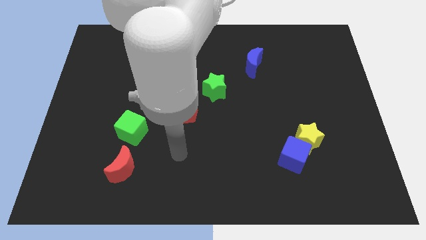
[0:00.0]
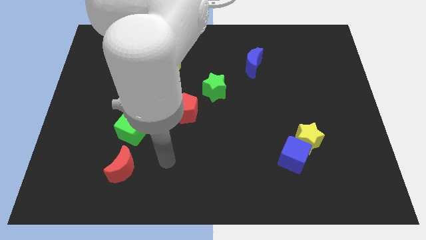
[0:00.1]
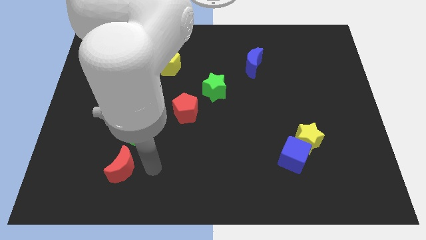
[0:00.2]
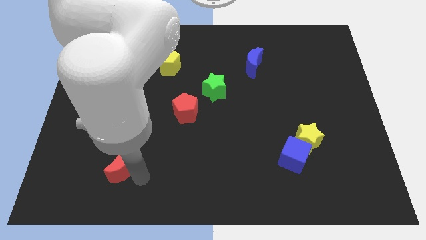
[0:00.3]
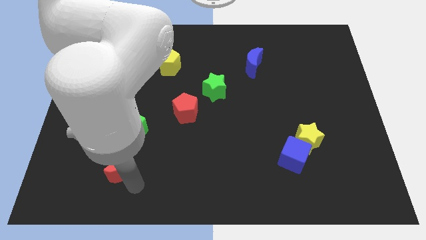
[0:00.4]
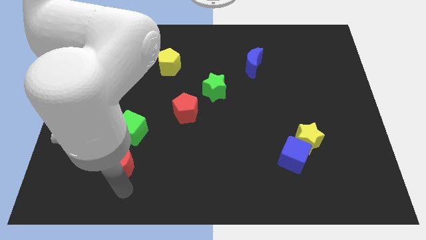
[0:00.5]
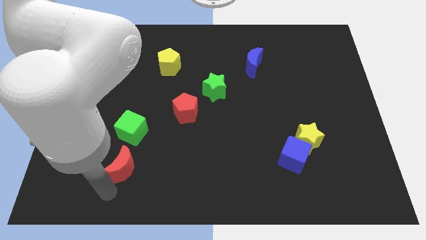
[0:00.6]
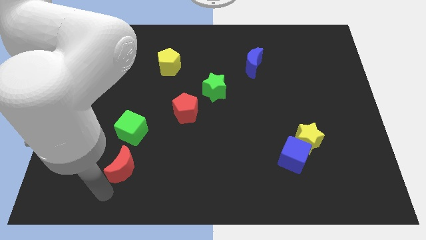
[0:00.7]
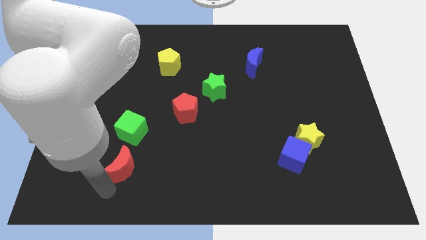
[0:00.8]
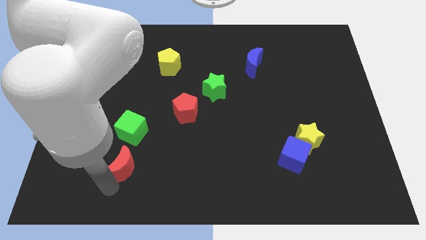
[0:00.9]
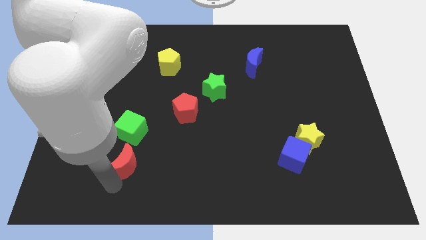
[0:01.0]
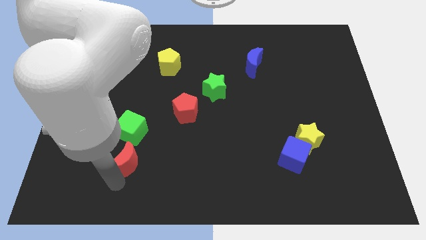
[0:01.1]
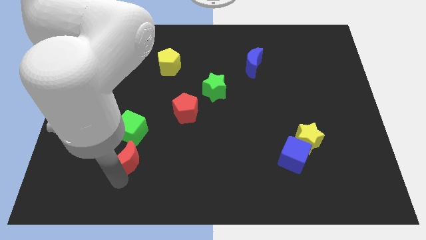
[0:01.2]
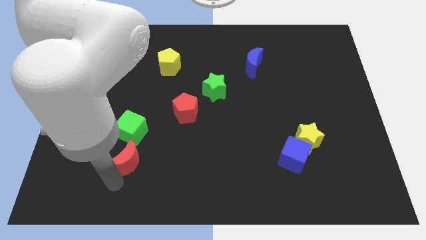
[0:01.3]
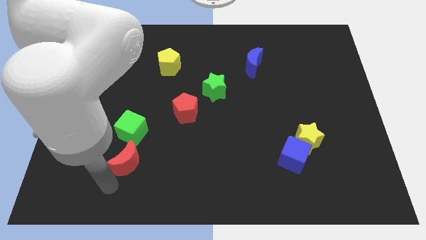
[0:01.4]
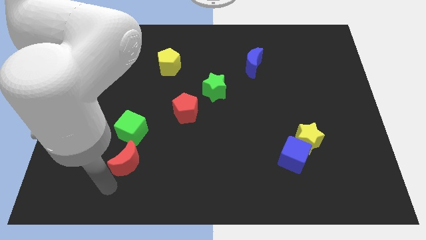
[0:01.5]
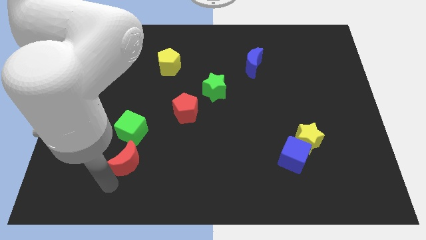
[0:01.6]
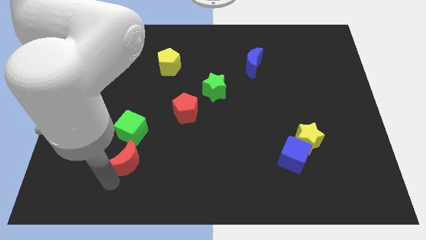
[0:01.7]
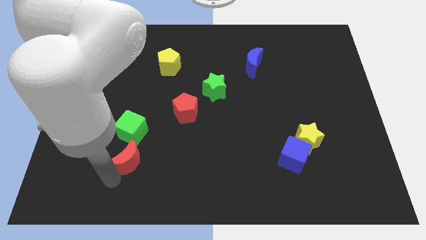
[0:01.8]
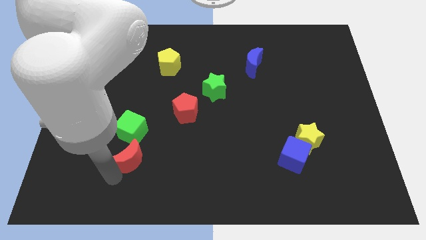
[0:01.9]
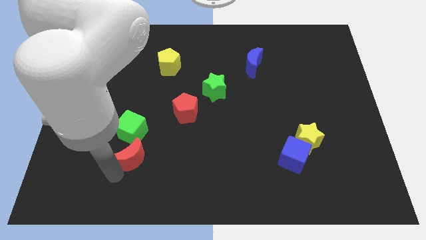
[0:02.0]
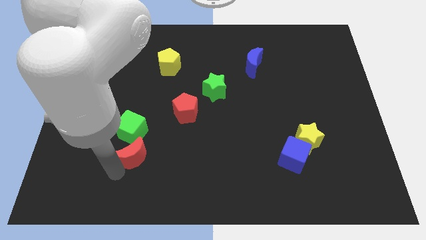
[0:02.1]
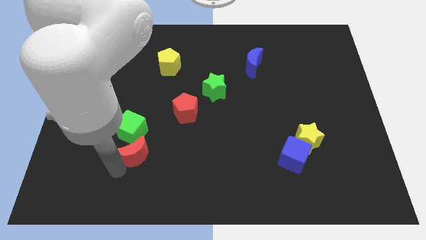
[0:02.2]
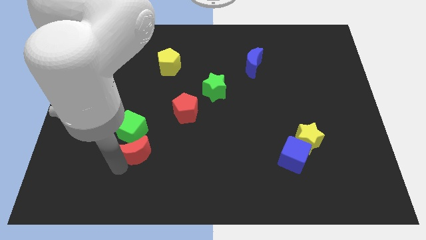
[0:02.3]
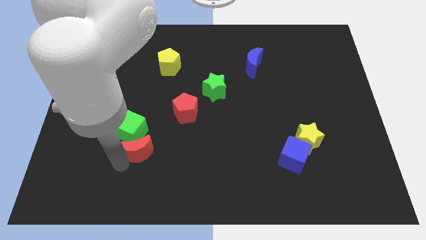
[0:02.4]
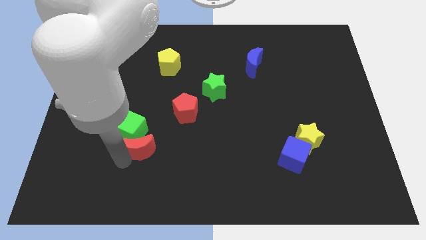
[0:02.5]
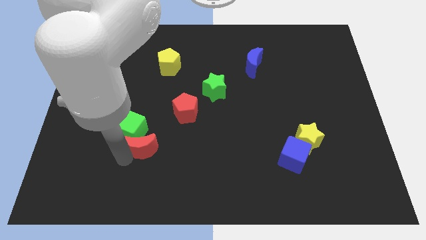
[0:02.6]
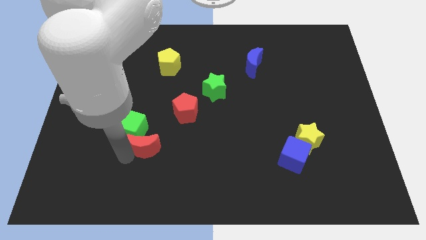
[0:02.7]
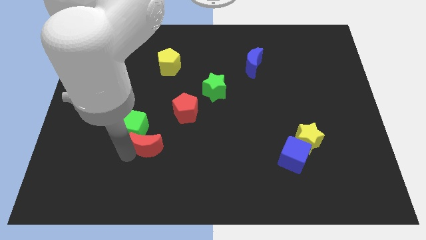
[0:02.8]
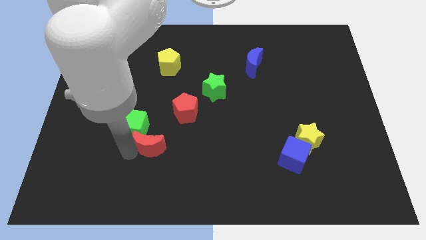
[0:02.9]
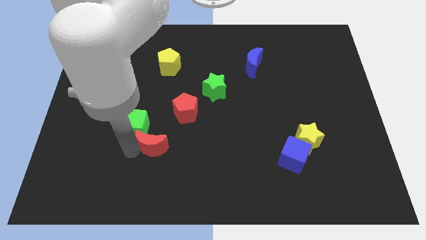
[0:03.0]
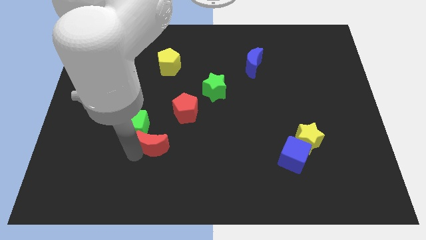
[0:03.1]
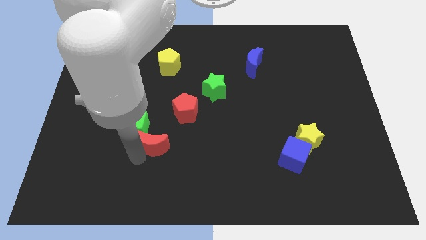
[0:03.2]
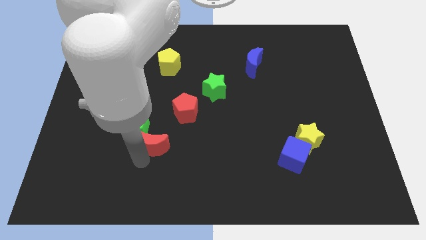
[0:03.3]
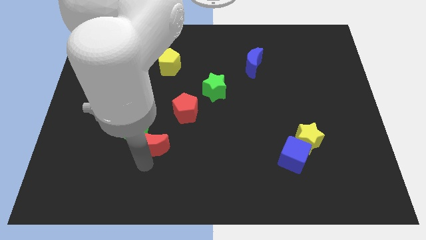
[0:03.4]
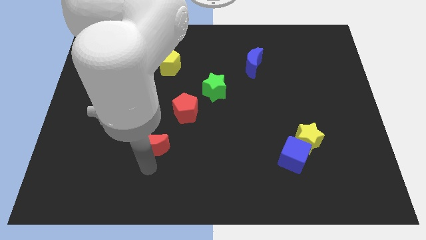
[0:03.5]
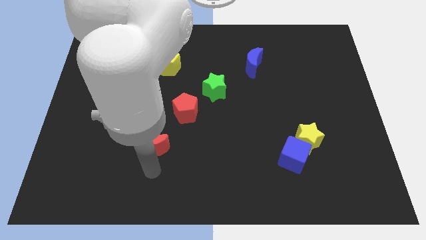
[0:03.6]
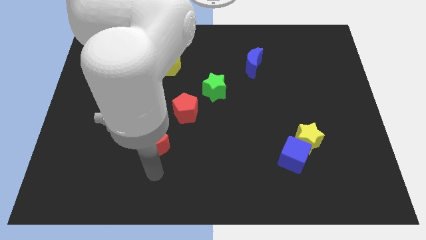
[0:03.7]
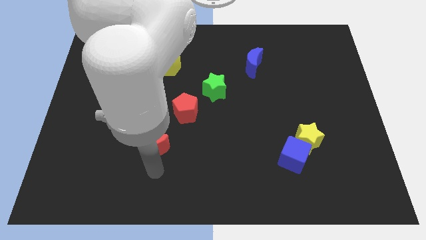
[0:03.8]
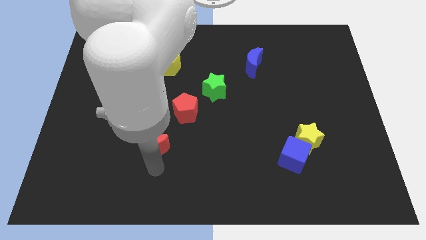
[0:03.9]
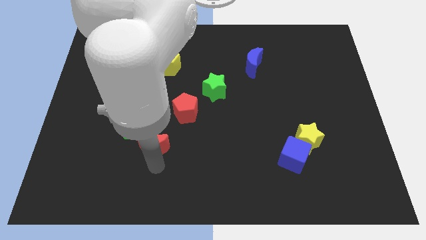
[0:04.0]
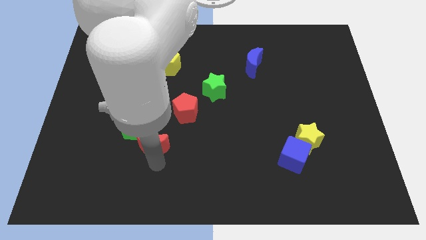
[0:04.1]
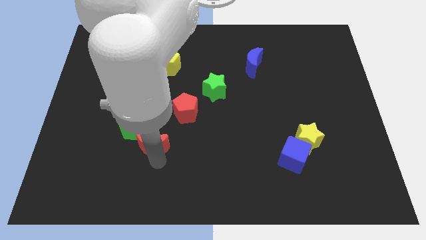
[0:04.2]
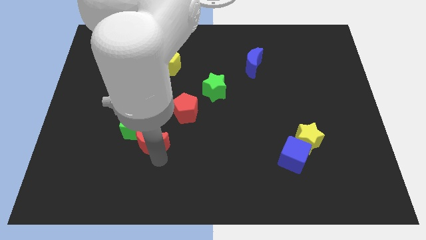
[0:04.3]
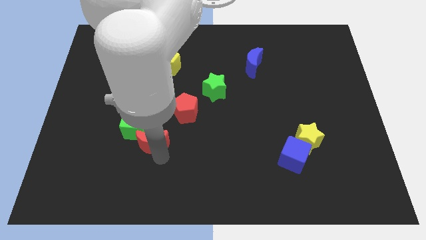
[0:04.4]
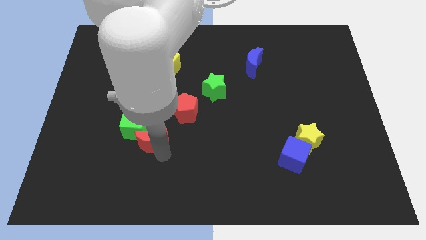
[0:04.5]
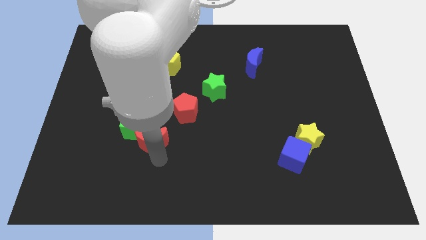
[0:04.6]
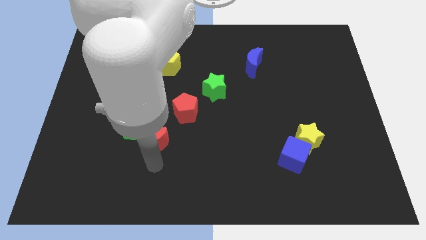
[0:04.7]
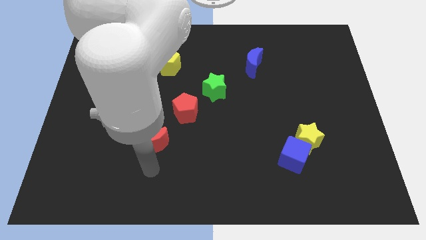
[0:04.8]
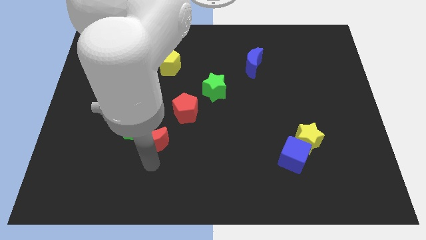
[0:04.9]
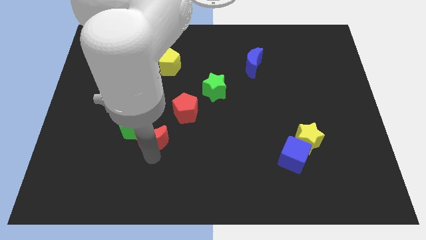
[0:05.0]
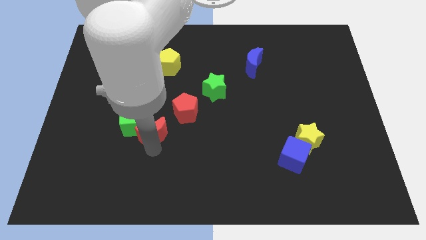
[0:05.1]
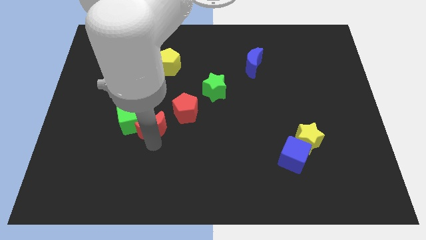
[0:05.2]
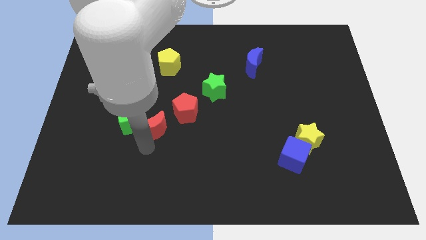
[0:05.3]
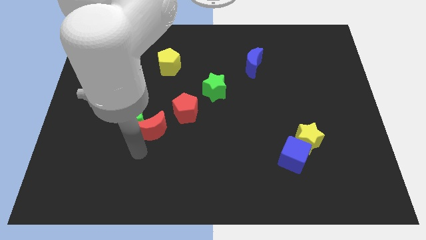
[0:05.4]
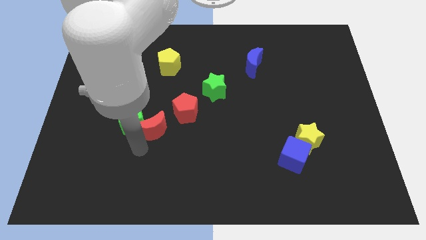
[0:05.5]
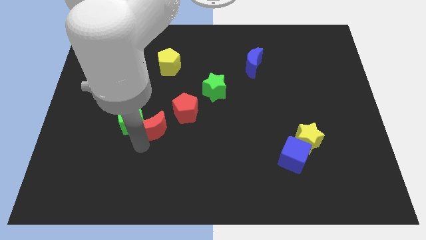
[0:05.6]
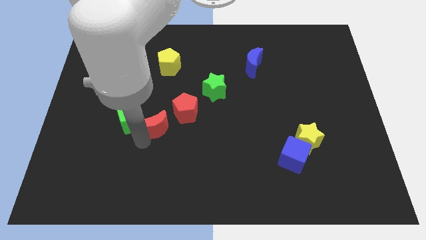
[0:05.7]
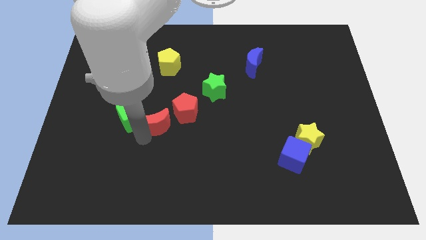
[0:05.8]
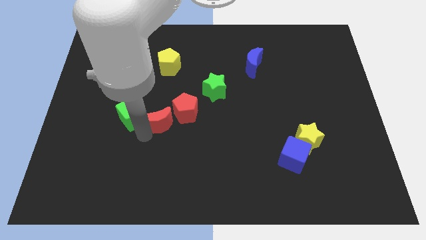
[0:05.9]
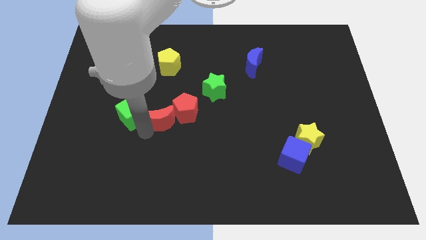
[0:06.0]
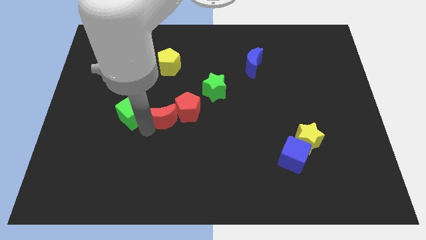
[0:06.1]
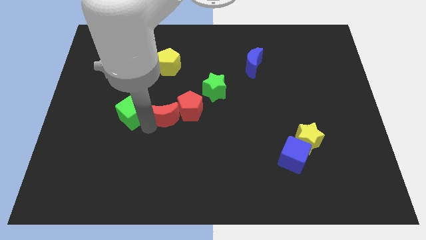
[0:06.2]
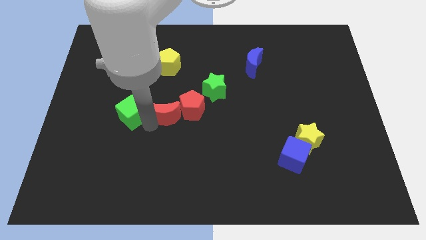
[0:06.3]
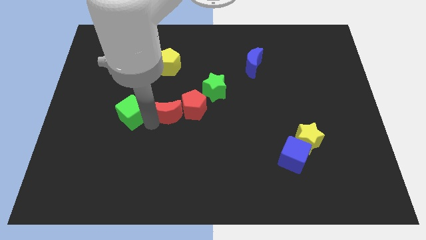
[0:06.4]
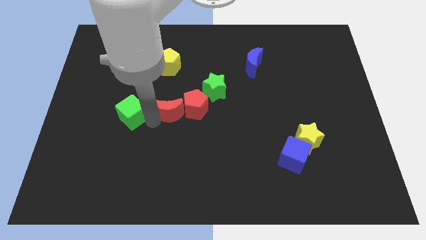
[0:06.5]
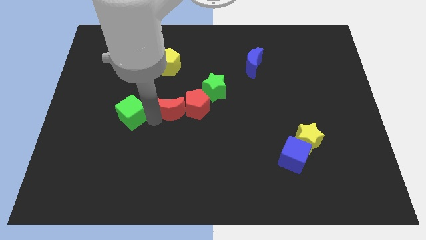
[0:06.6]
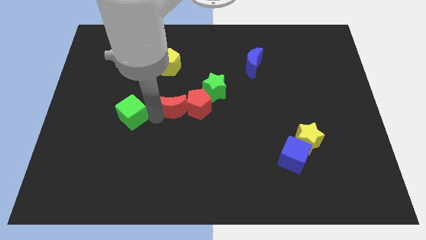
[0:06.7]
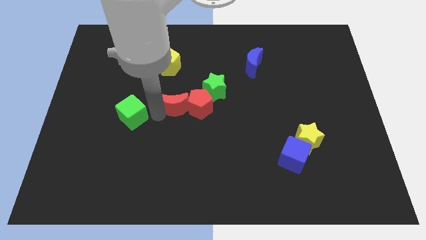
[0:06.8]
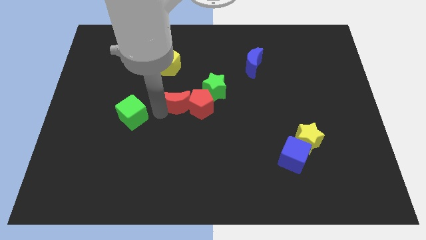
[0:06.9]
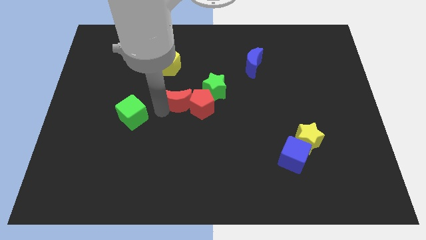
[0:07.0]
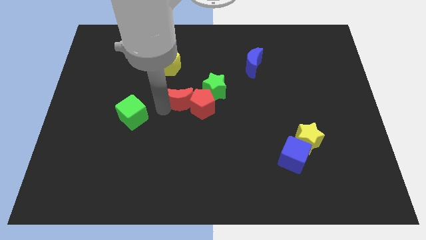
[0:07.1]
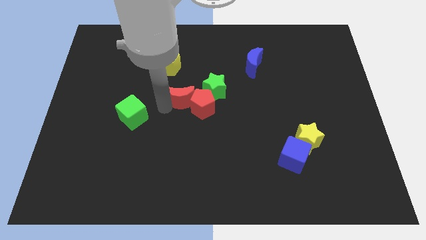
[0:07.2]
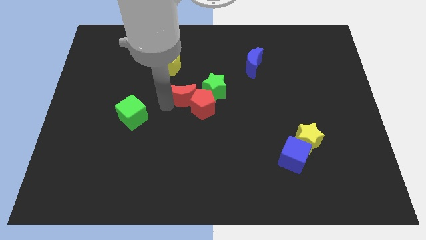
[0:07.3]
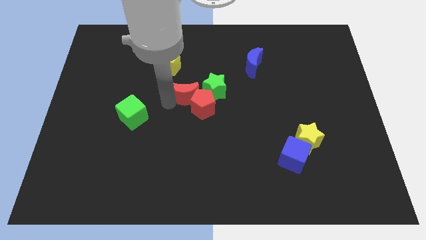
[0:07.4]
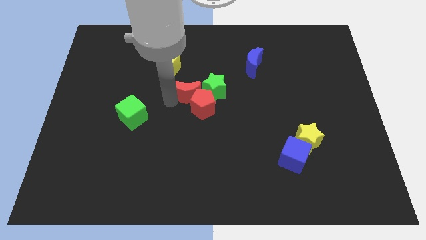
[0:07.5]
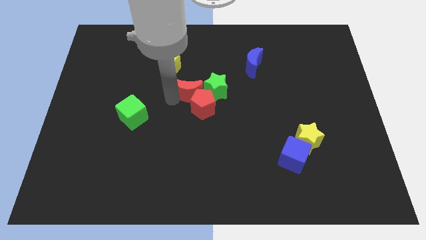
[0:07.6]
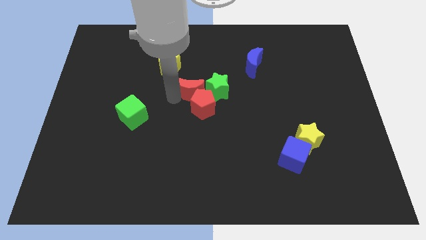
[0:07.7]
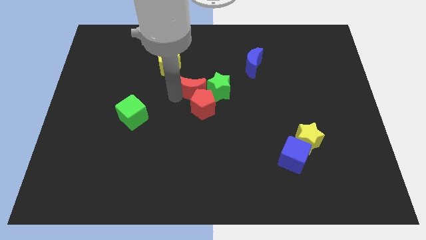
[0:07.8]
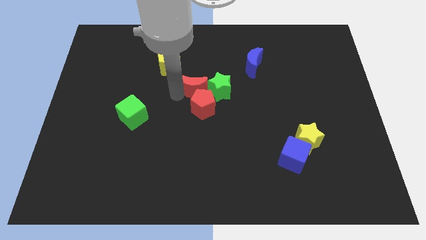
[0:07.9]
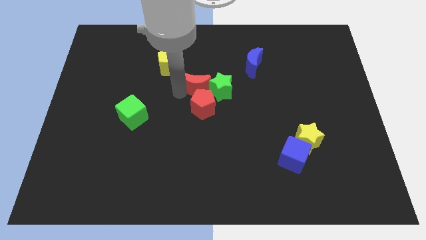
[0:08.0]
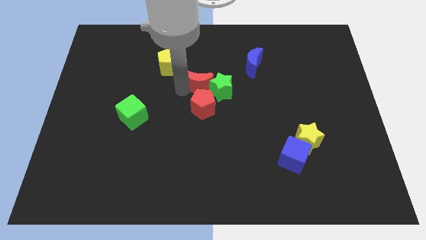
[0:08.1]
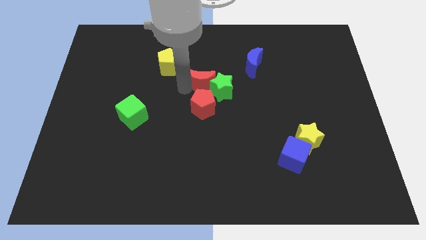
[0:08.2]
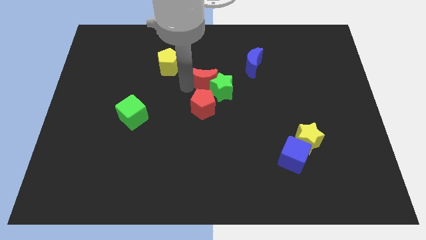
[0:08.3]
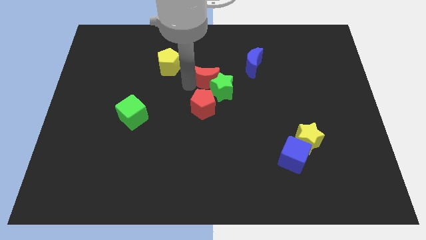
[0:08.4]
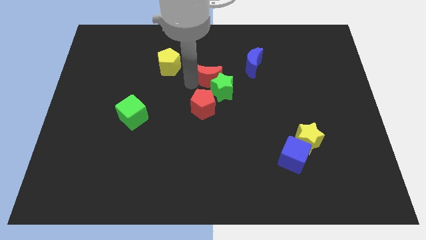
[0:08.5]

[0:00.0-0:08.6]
slide the red moon to the right of the yellow pentagon
